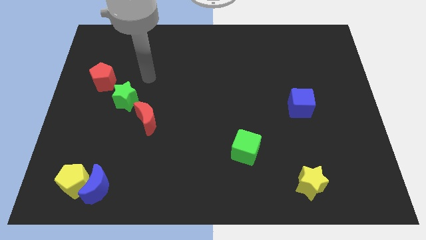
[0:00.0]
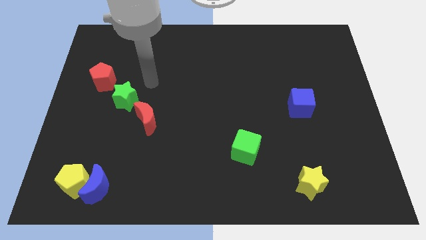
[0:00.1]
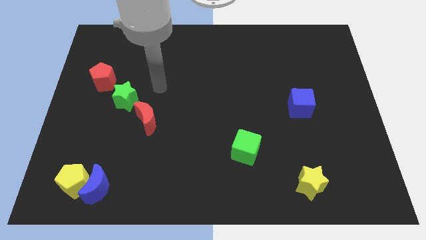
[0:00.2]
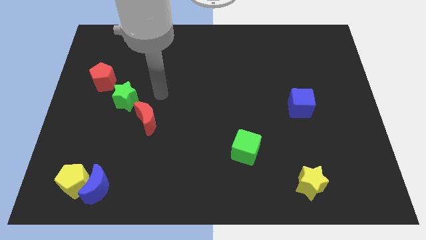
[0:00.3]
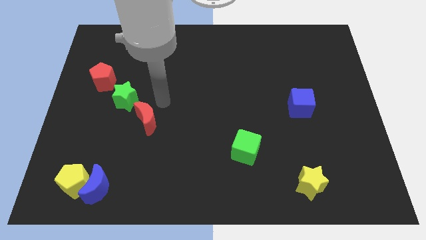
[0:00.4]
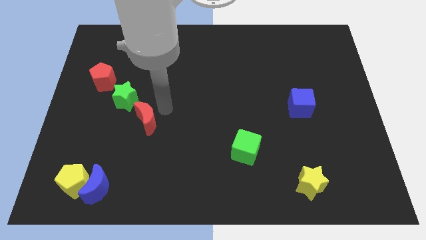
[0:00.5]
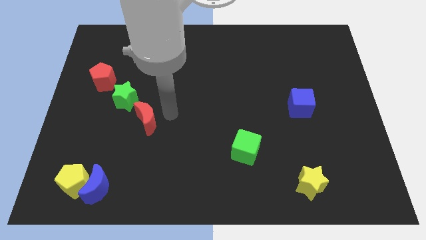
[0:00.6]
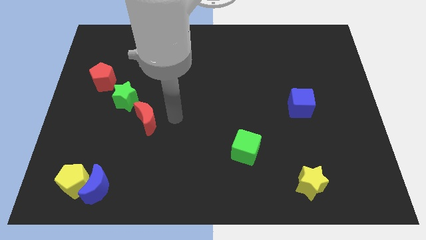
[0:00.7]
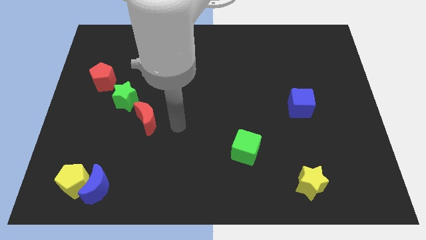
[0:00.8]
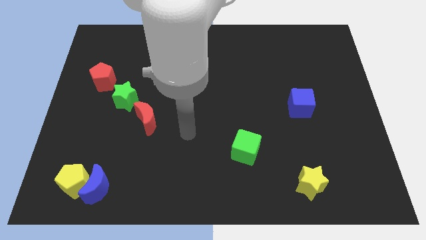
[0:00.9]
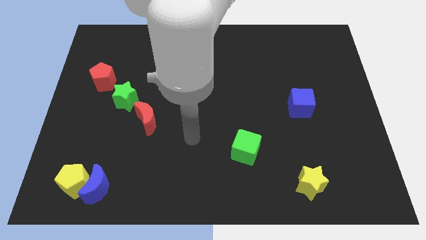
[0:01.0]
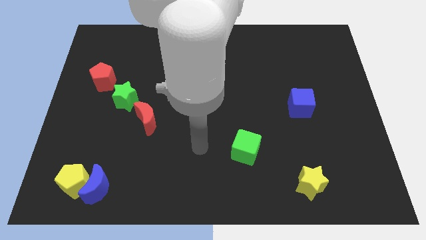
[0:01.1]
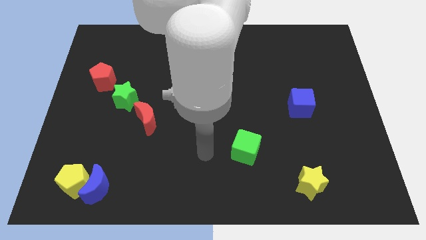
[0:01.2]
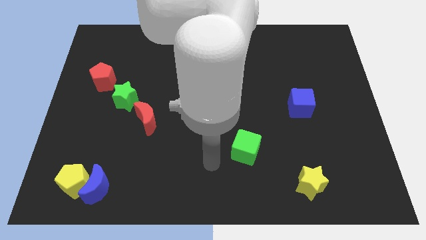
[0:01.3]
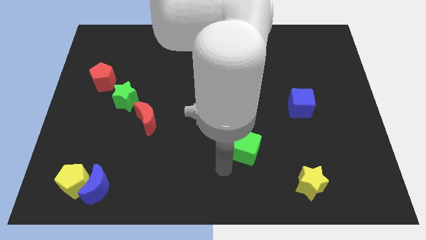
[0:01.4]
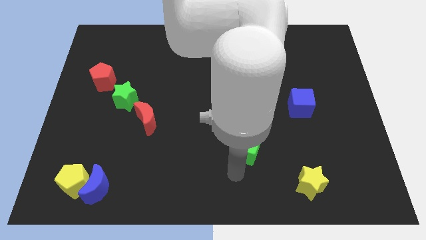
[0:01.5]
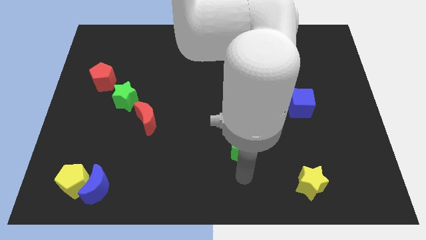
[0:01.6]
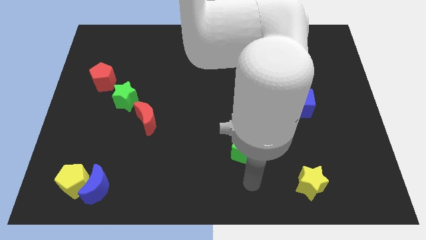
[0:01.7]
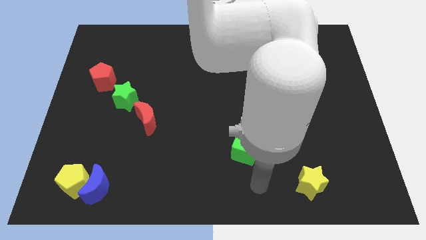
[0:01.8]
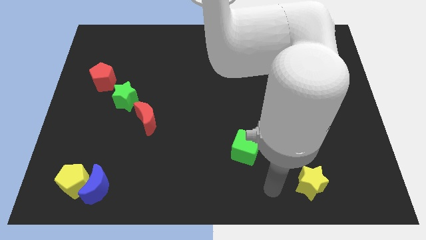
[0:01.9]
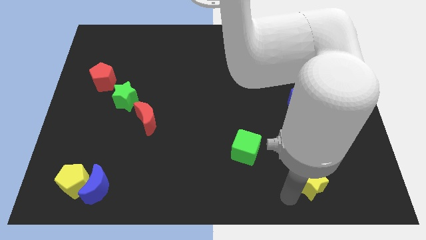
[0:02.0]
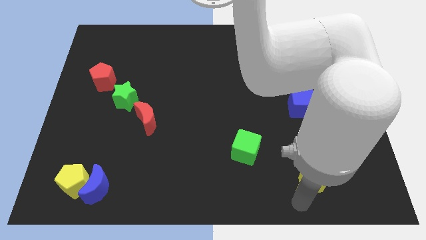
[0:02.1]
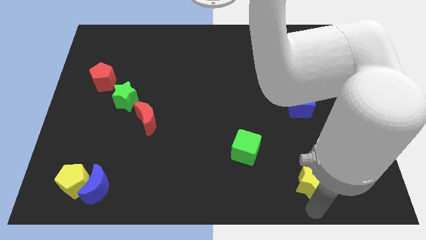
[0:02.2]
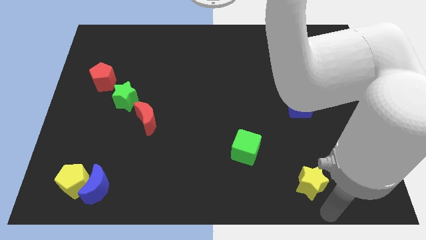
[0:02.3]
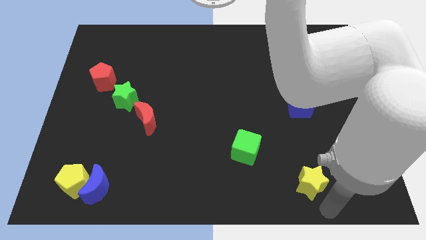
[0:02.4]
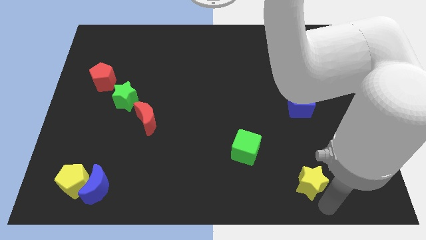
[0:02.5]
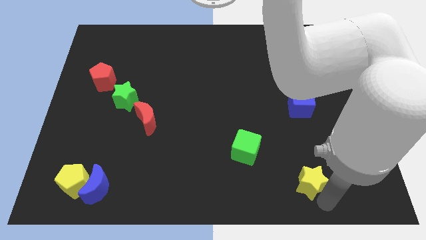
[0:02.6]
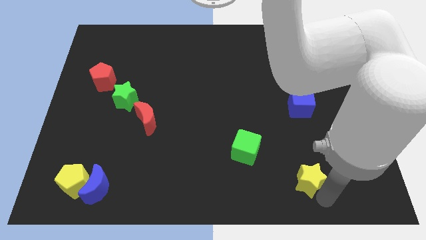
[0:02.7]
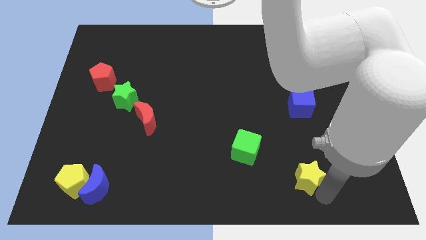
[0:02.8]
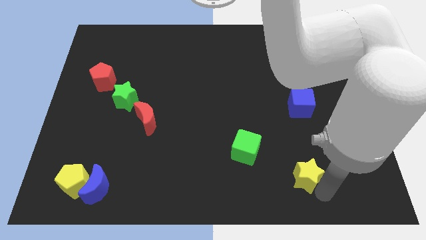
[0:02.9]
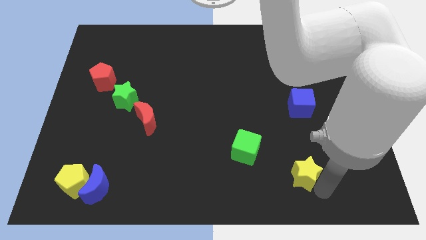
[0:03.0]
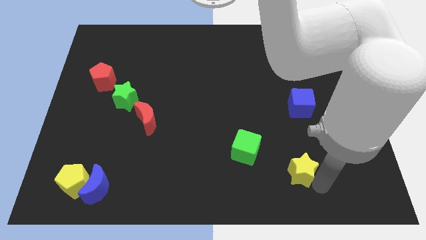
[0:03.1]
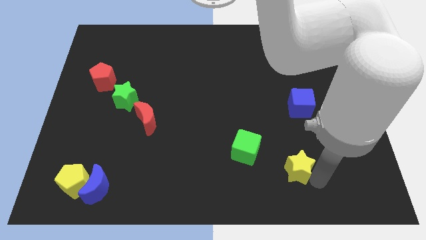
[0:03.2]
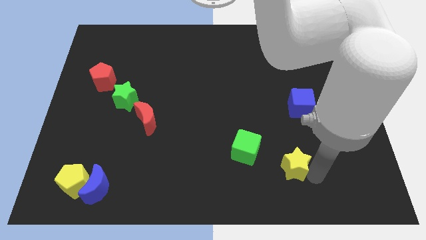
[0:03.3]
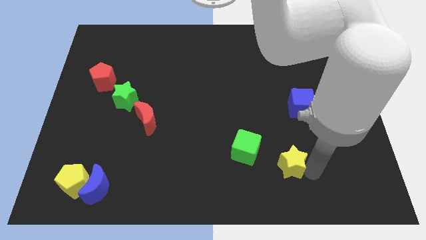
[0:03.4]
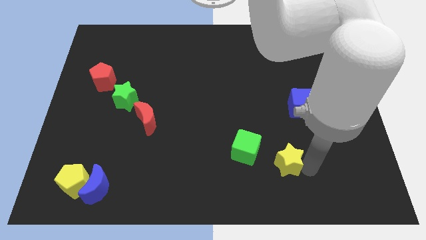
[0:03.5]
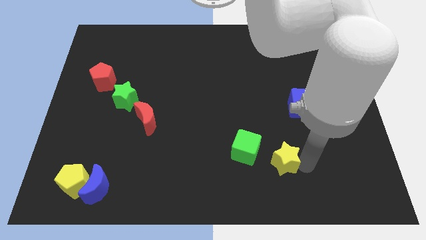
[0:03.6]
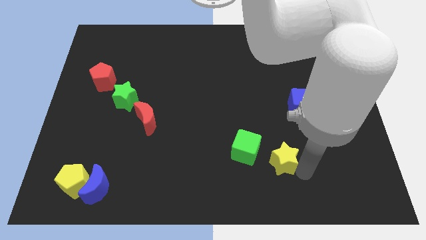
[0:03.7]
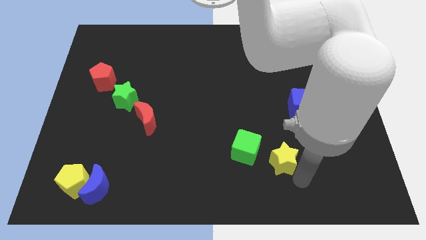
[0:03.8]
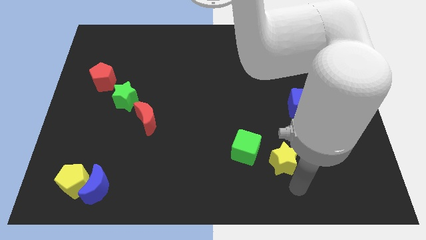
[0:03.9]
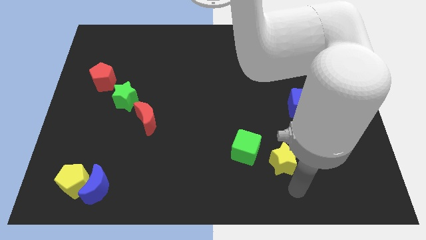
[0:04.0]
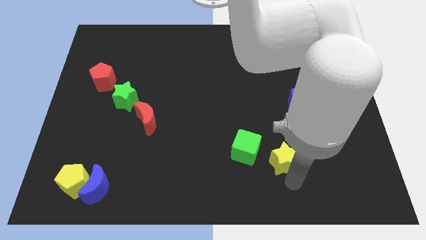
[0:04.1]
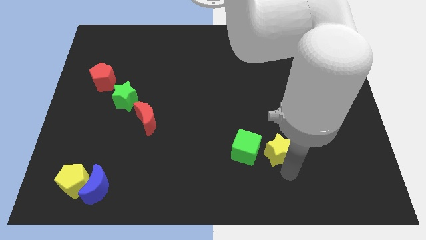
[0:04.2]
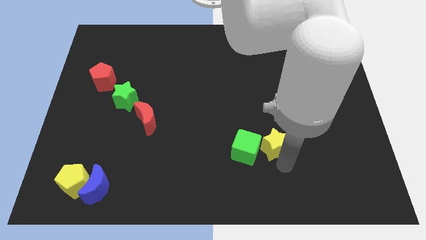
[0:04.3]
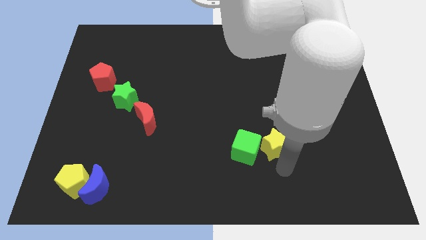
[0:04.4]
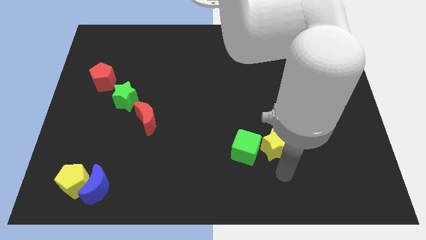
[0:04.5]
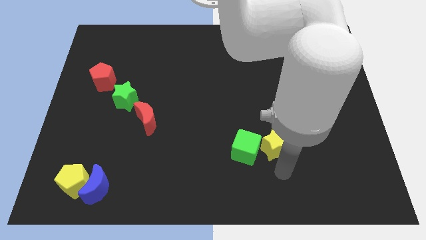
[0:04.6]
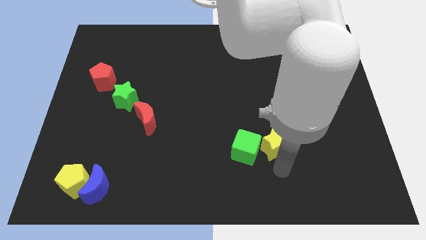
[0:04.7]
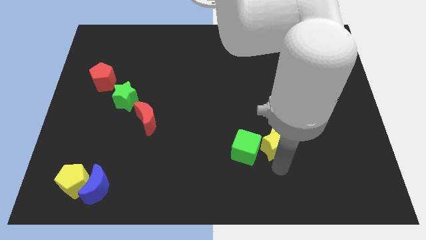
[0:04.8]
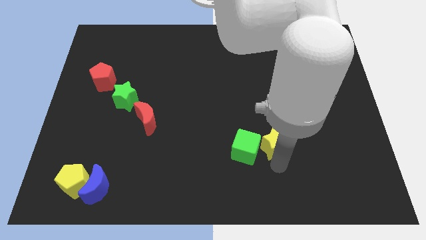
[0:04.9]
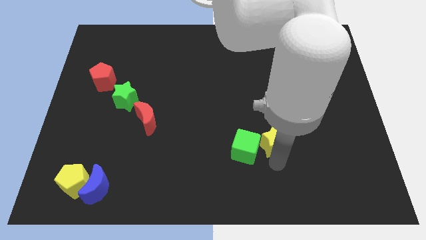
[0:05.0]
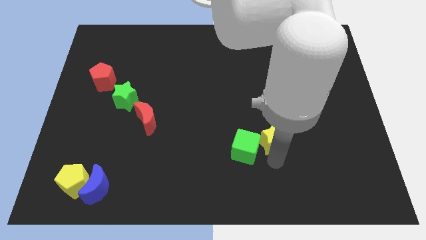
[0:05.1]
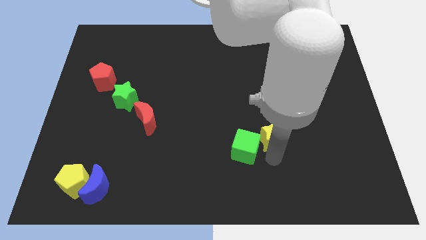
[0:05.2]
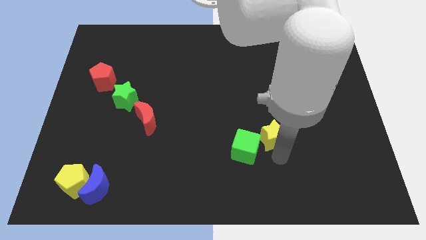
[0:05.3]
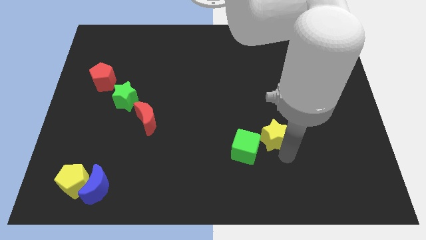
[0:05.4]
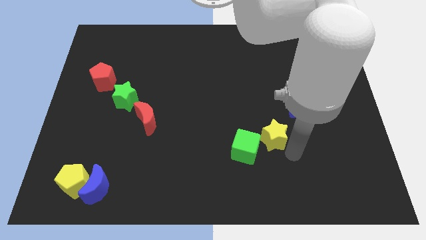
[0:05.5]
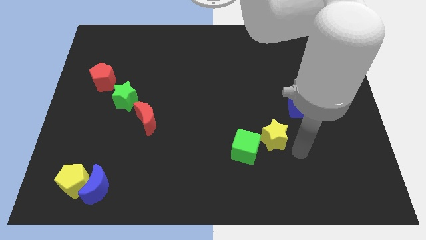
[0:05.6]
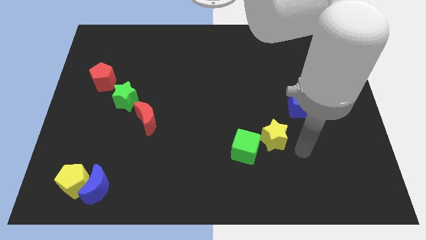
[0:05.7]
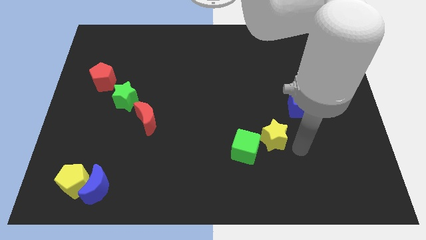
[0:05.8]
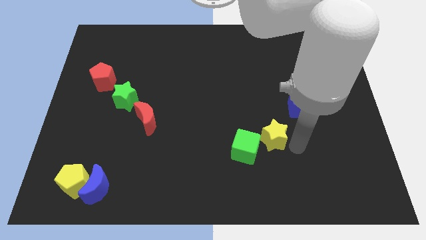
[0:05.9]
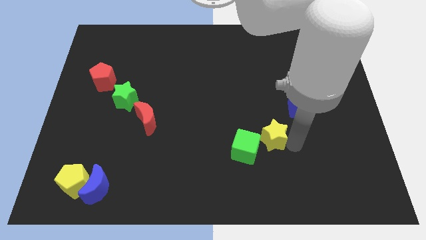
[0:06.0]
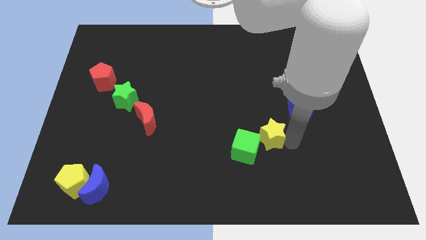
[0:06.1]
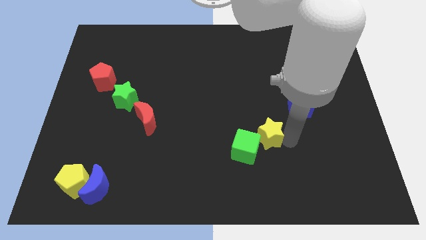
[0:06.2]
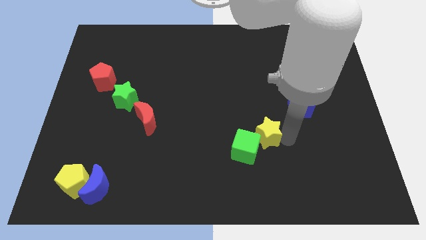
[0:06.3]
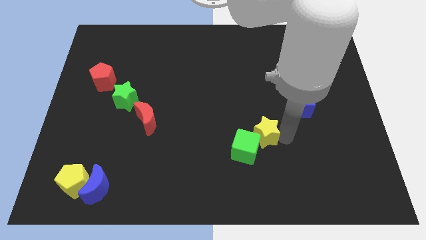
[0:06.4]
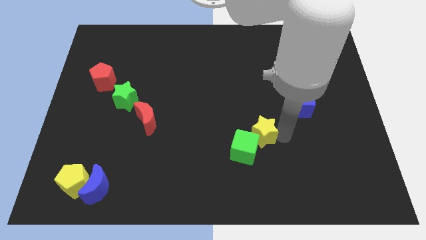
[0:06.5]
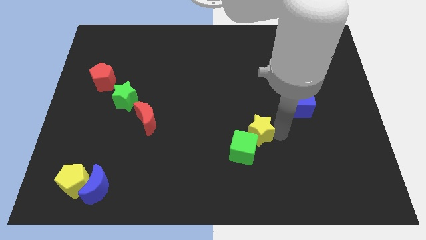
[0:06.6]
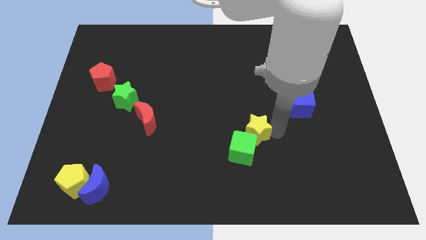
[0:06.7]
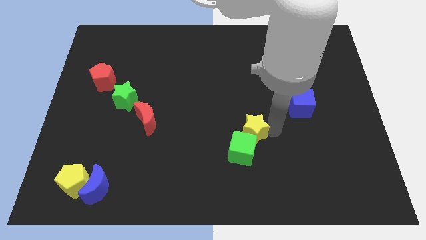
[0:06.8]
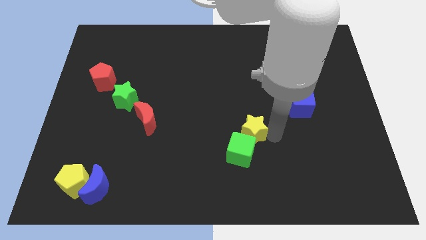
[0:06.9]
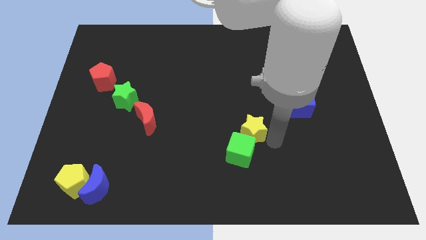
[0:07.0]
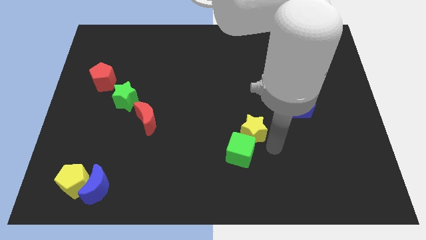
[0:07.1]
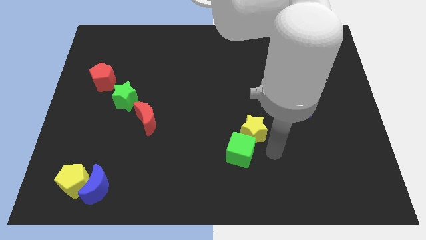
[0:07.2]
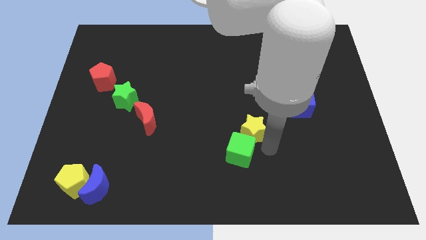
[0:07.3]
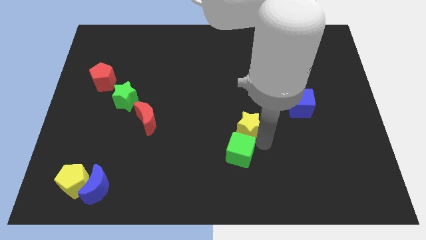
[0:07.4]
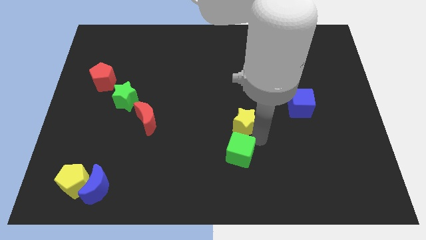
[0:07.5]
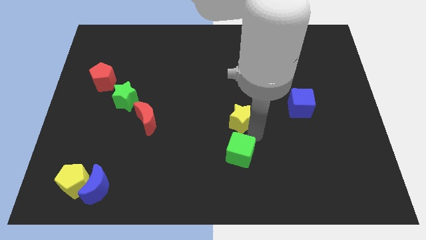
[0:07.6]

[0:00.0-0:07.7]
push the yellow star up and then left
